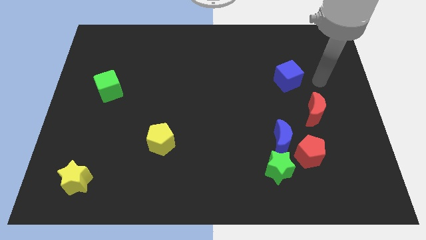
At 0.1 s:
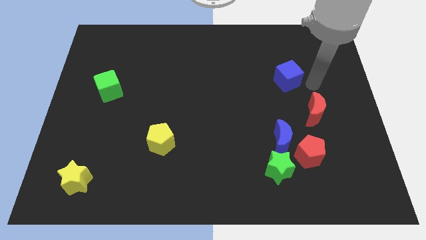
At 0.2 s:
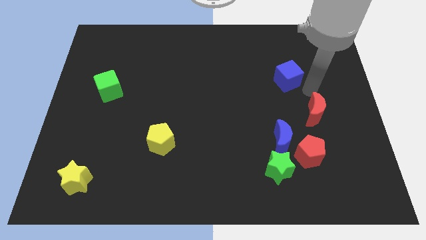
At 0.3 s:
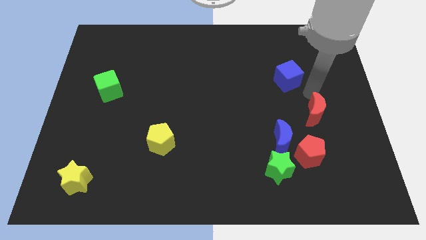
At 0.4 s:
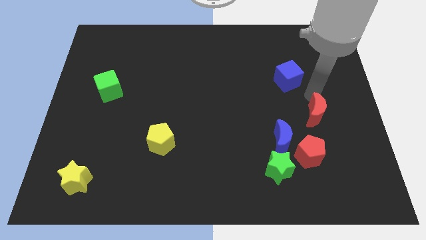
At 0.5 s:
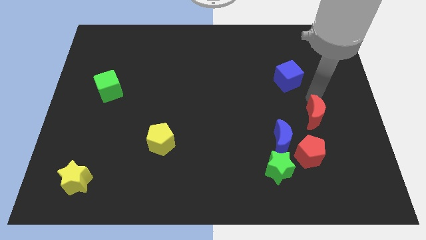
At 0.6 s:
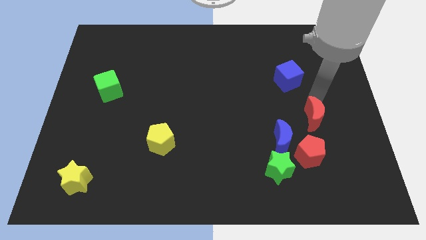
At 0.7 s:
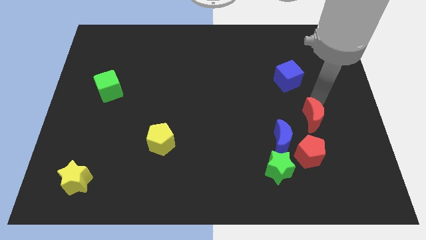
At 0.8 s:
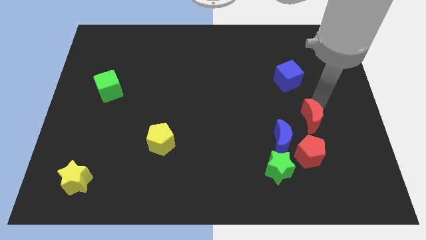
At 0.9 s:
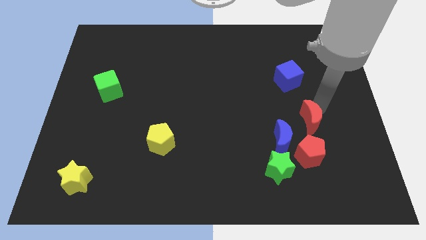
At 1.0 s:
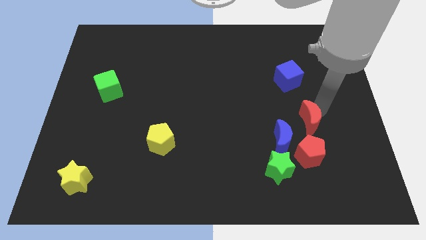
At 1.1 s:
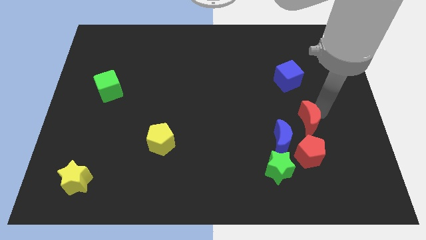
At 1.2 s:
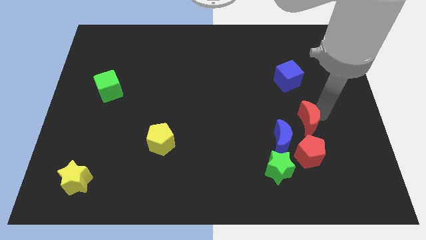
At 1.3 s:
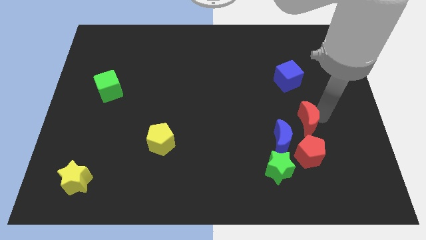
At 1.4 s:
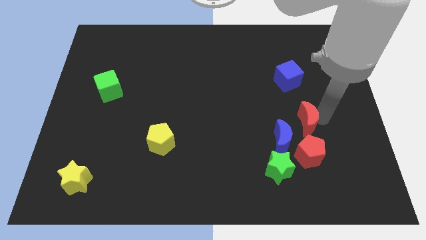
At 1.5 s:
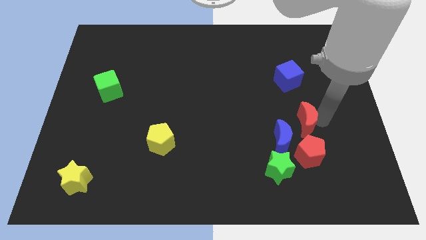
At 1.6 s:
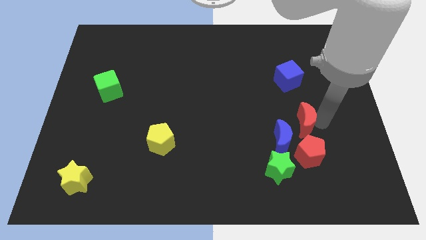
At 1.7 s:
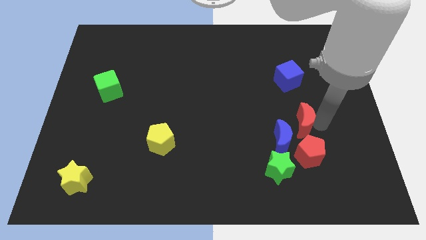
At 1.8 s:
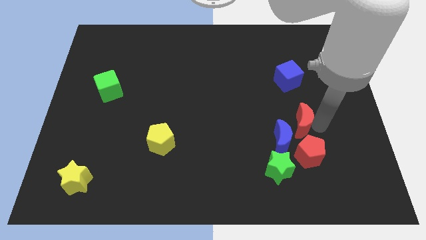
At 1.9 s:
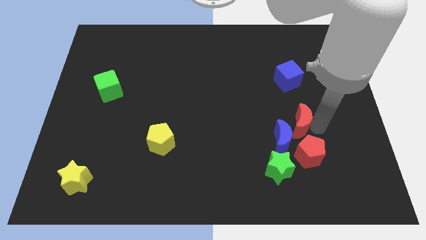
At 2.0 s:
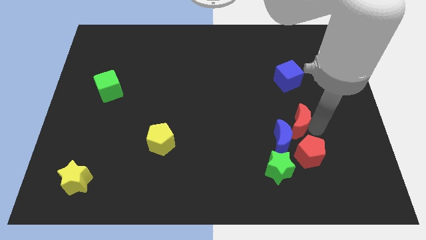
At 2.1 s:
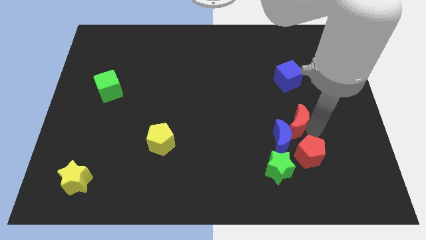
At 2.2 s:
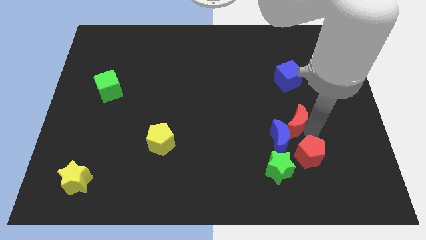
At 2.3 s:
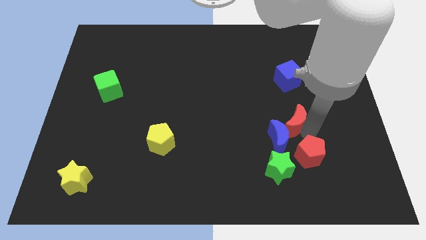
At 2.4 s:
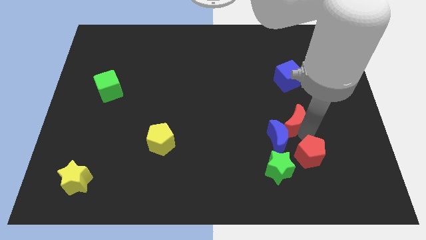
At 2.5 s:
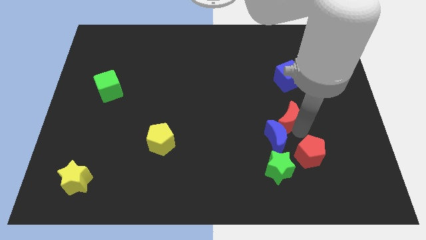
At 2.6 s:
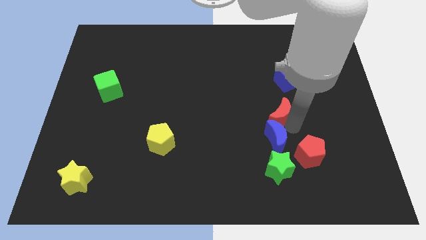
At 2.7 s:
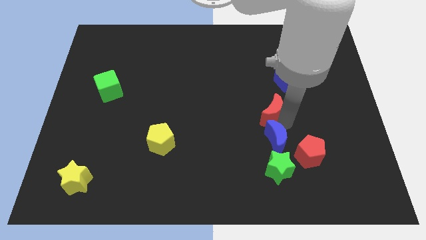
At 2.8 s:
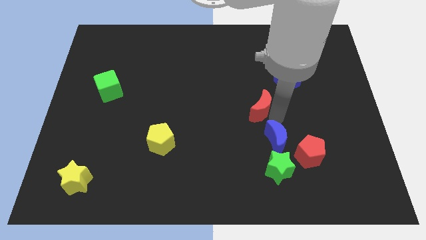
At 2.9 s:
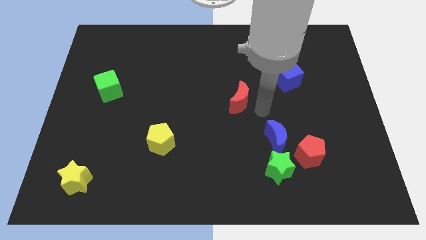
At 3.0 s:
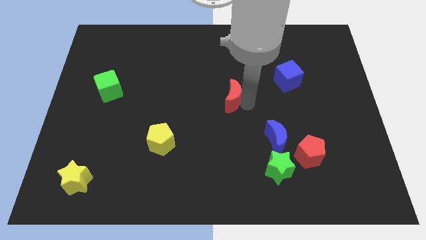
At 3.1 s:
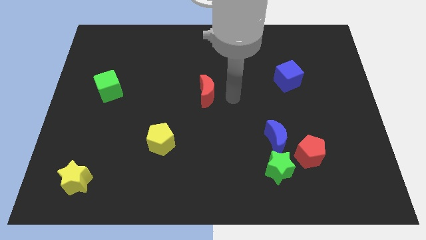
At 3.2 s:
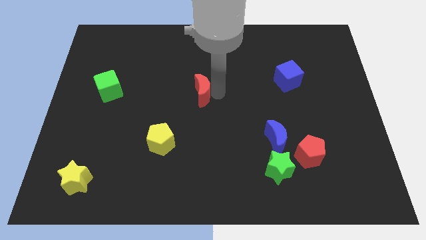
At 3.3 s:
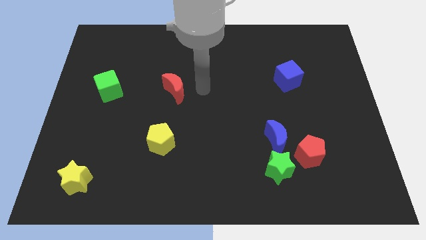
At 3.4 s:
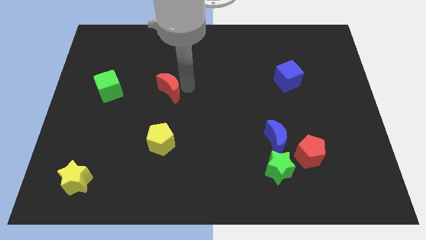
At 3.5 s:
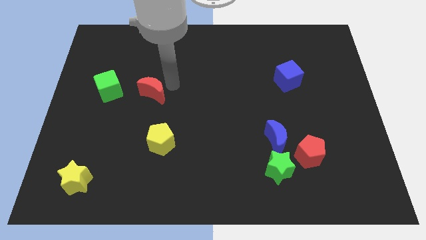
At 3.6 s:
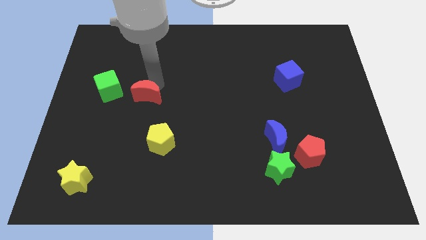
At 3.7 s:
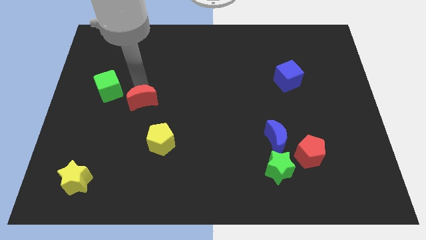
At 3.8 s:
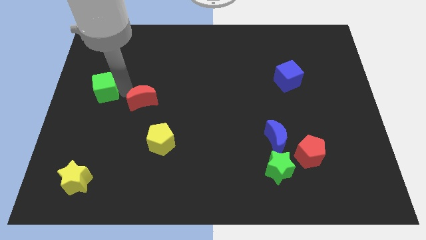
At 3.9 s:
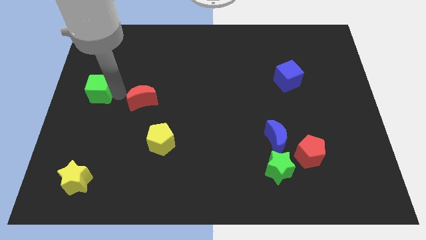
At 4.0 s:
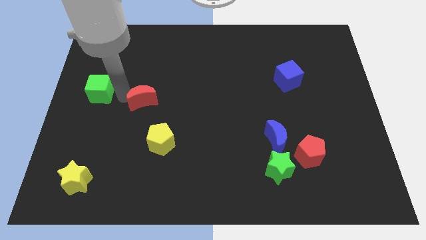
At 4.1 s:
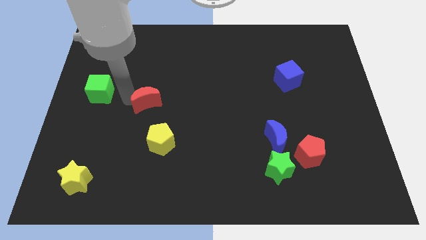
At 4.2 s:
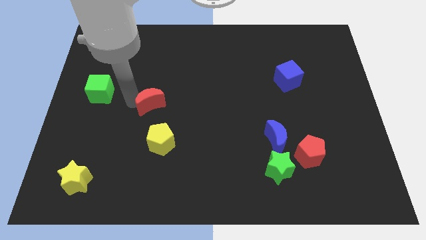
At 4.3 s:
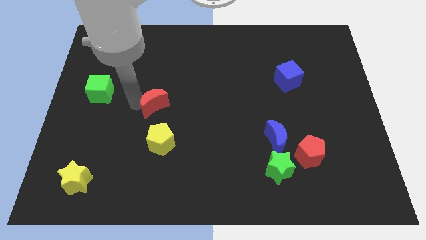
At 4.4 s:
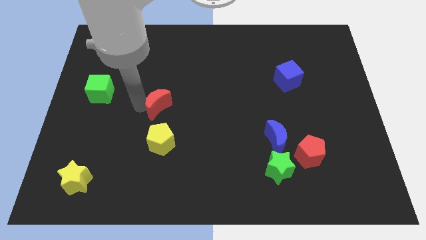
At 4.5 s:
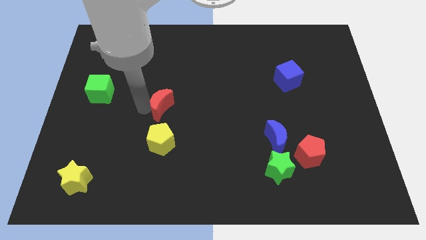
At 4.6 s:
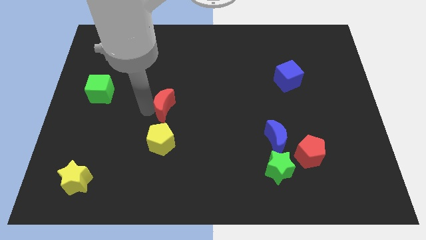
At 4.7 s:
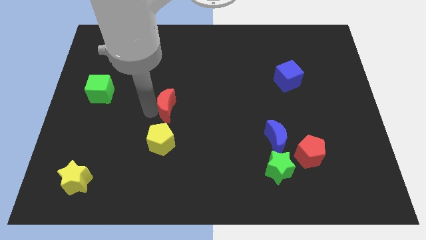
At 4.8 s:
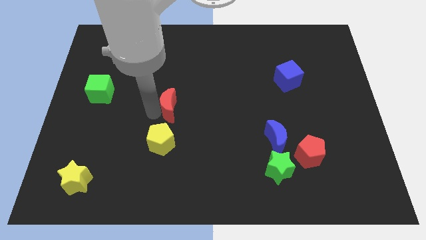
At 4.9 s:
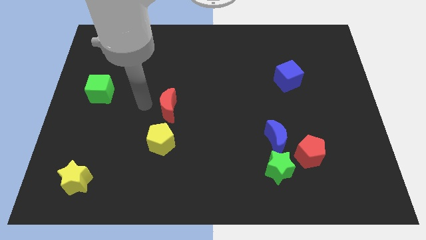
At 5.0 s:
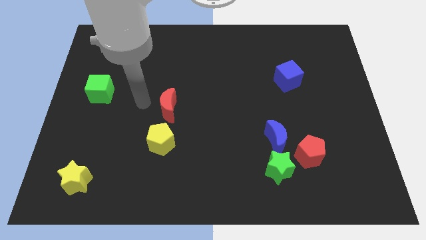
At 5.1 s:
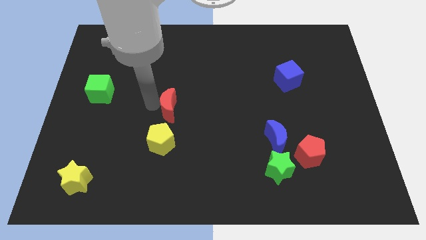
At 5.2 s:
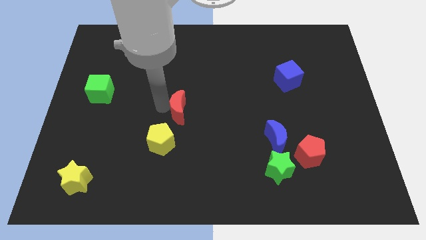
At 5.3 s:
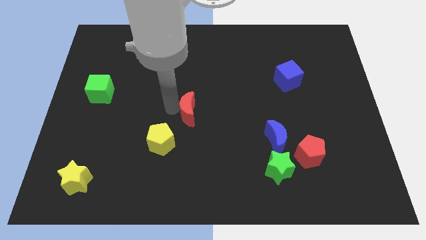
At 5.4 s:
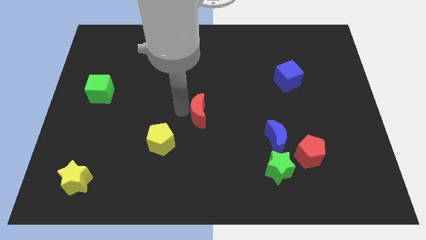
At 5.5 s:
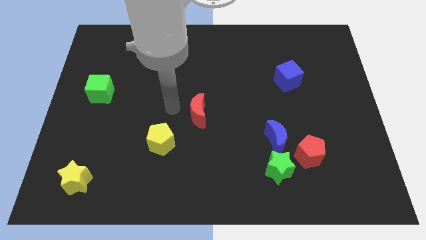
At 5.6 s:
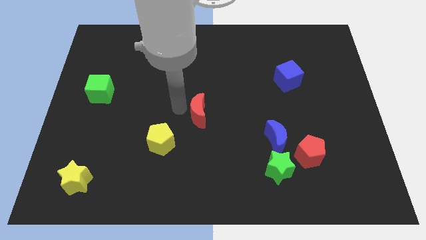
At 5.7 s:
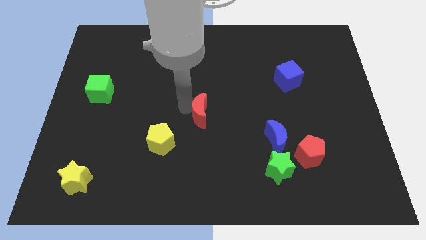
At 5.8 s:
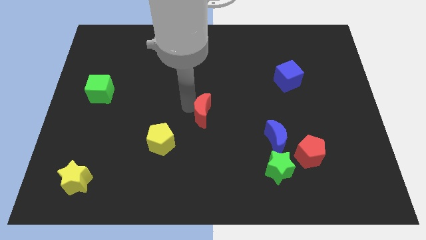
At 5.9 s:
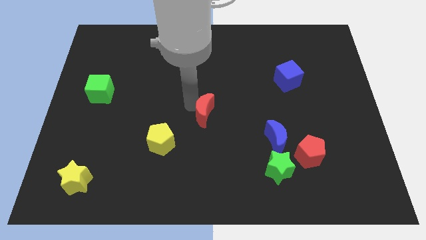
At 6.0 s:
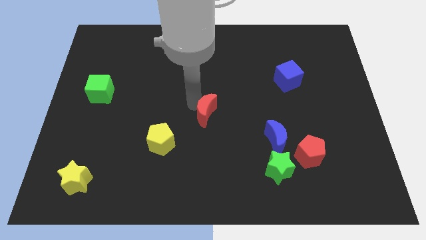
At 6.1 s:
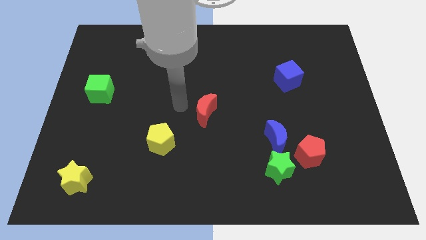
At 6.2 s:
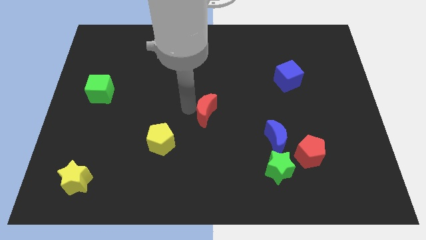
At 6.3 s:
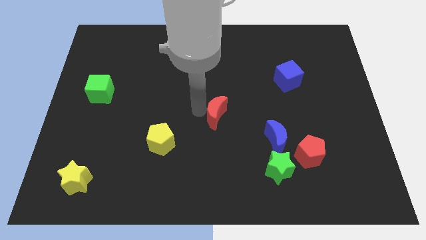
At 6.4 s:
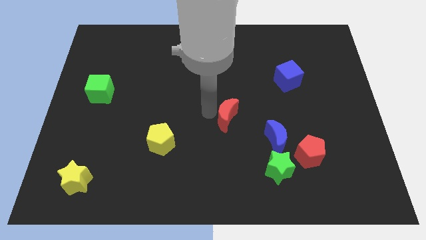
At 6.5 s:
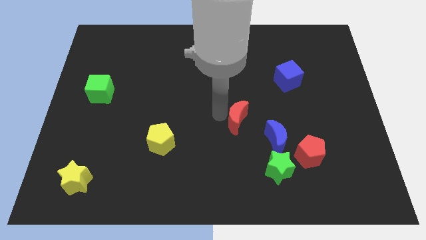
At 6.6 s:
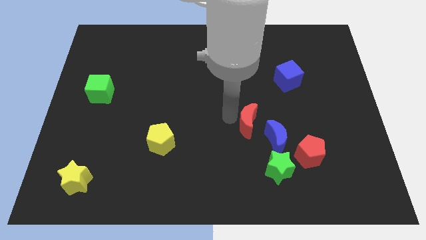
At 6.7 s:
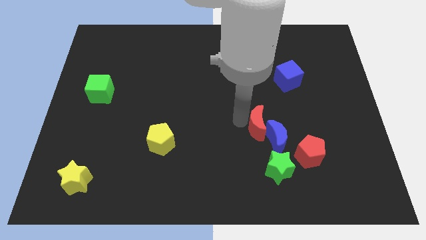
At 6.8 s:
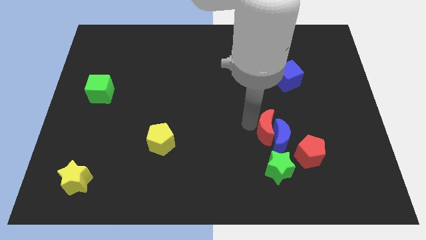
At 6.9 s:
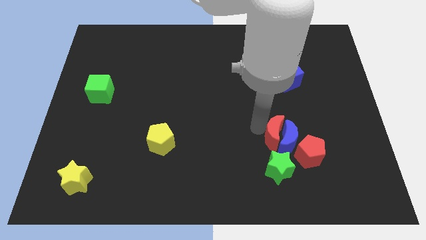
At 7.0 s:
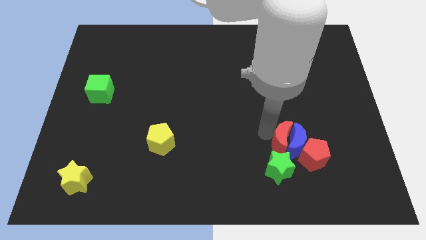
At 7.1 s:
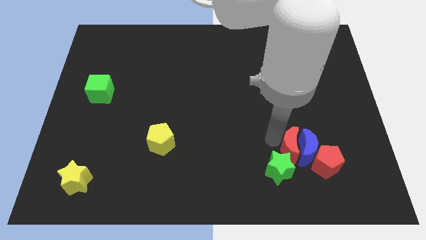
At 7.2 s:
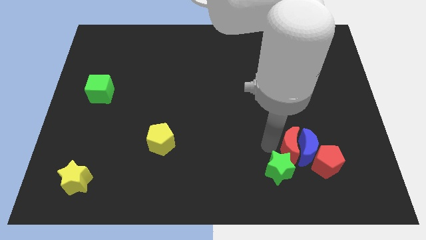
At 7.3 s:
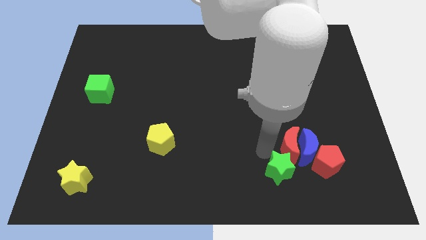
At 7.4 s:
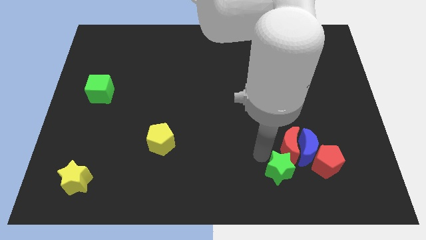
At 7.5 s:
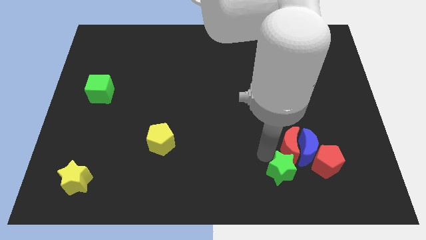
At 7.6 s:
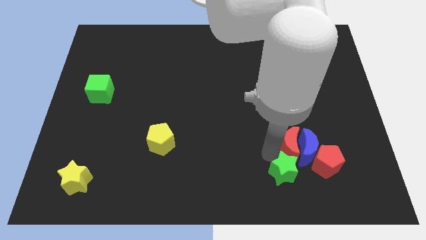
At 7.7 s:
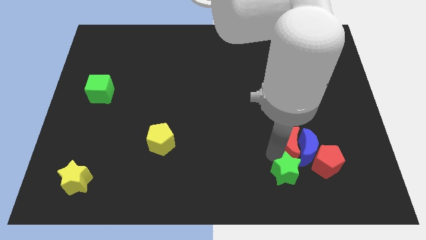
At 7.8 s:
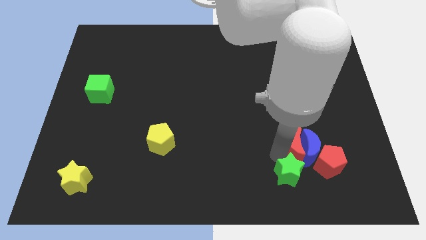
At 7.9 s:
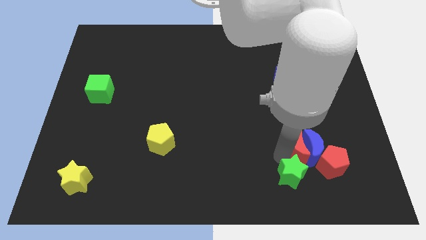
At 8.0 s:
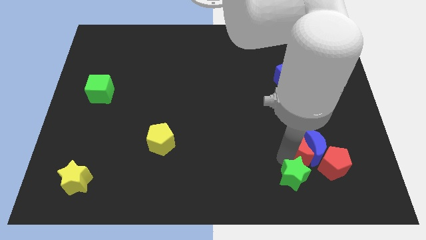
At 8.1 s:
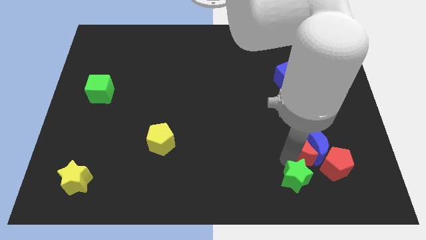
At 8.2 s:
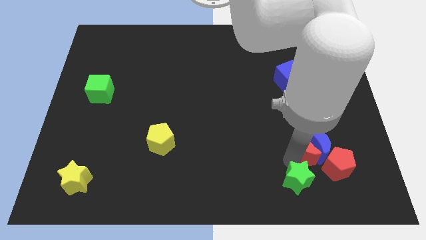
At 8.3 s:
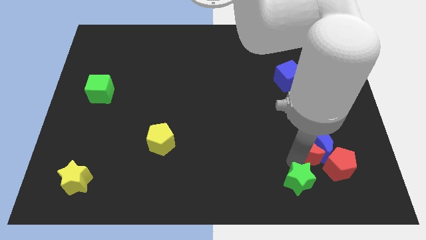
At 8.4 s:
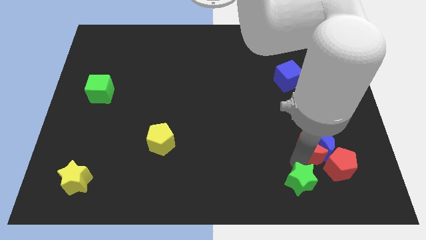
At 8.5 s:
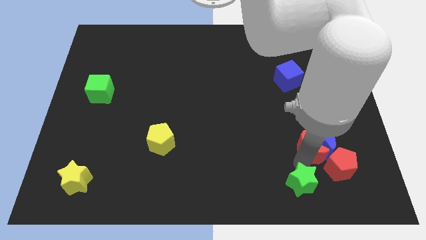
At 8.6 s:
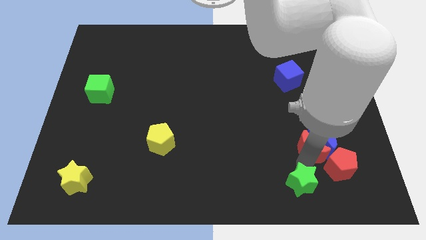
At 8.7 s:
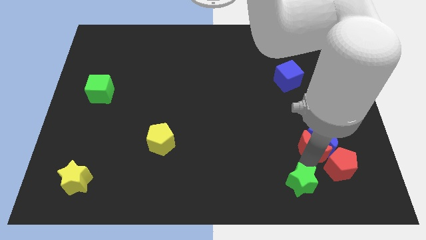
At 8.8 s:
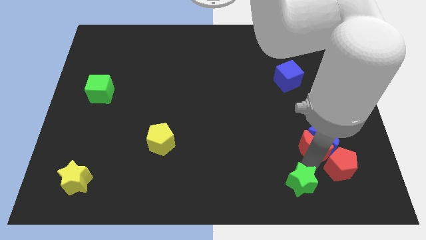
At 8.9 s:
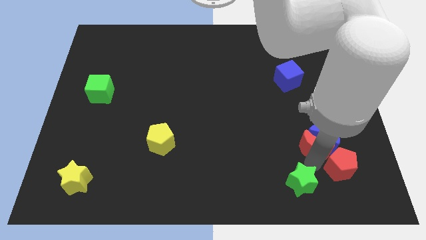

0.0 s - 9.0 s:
push the red moon to the red pentagon
